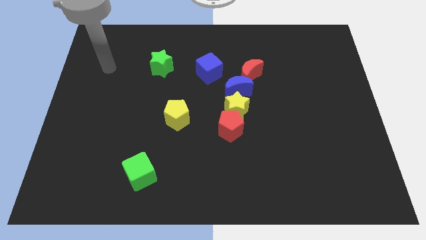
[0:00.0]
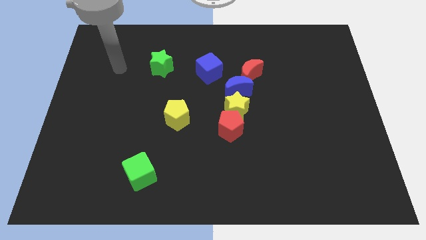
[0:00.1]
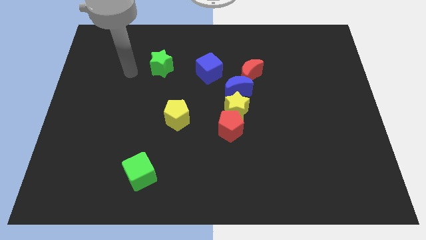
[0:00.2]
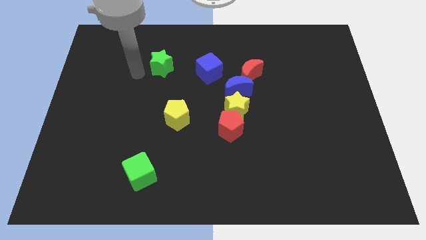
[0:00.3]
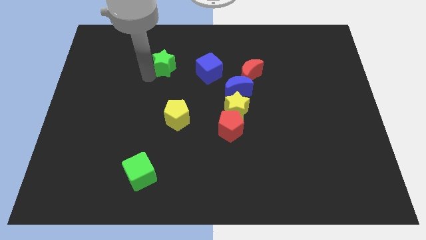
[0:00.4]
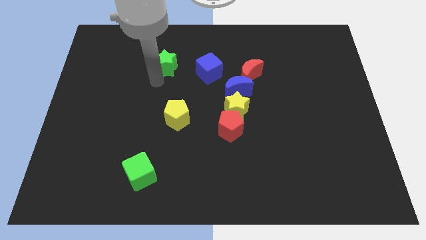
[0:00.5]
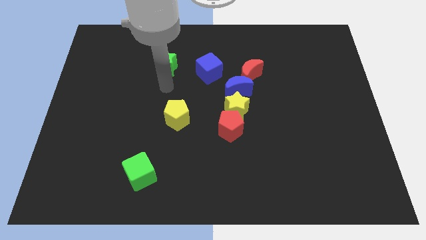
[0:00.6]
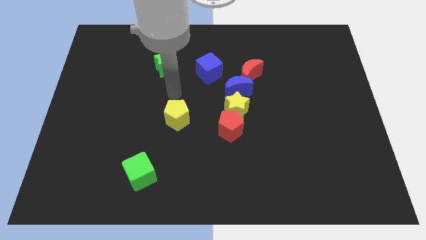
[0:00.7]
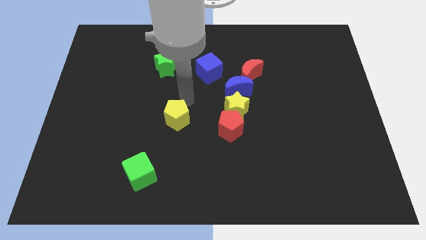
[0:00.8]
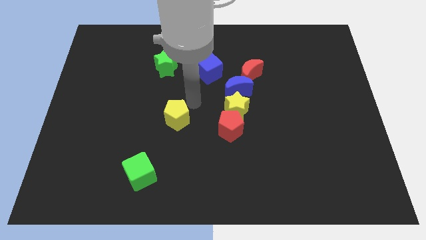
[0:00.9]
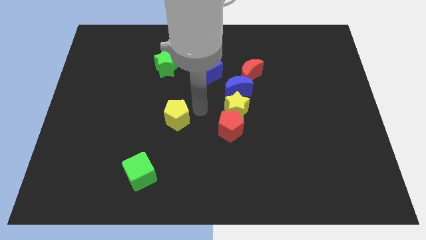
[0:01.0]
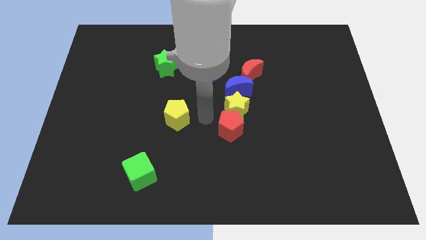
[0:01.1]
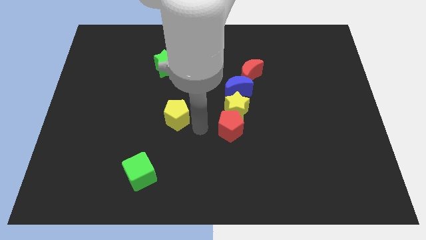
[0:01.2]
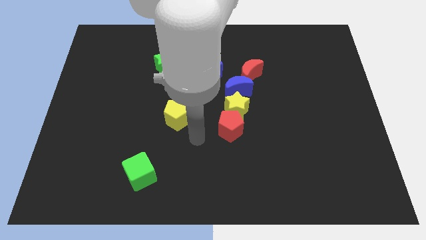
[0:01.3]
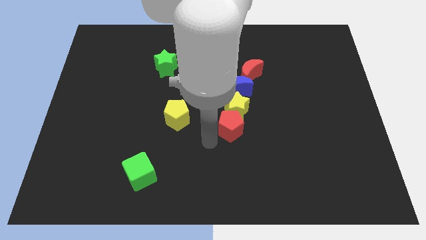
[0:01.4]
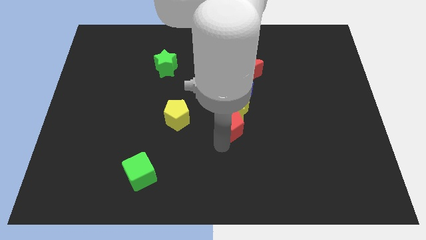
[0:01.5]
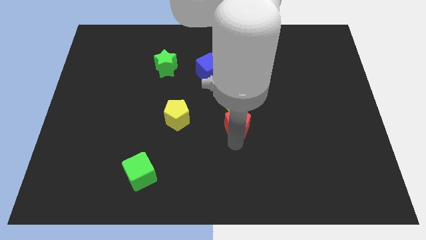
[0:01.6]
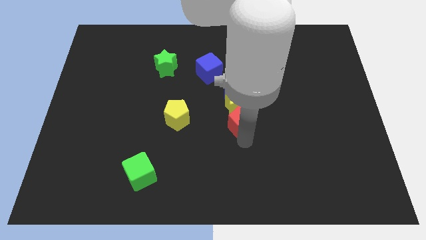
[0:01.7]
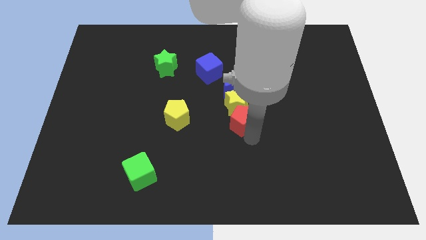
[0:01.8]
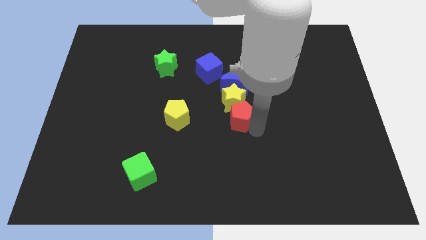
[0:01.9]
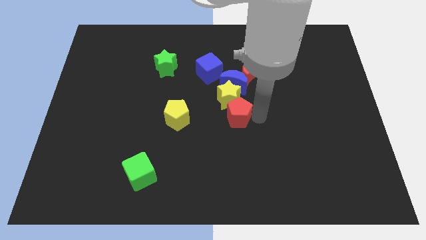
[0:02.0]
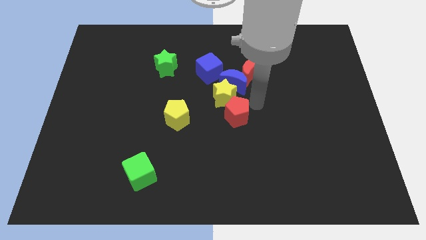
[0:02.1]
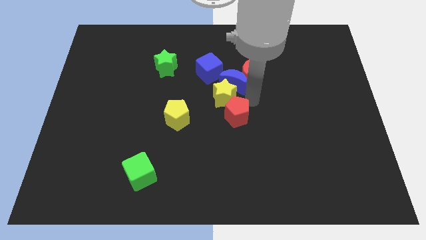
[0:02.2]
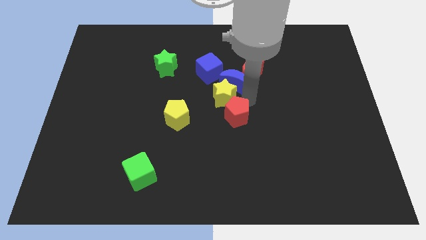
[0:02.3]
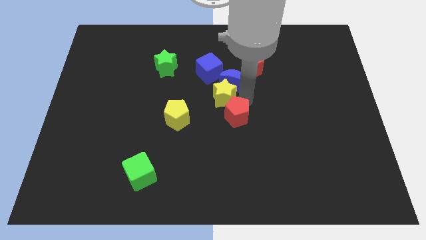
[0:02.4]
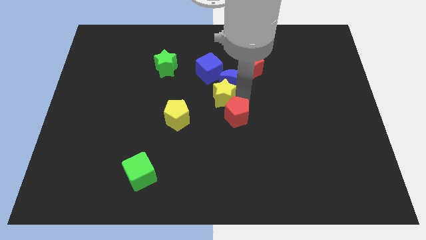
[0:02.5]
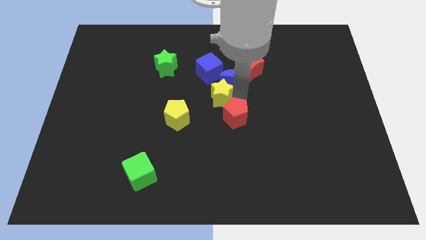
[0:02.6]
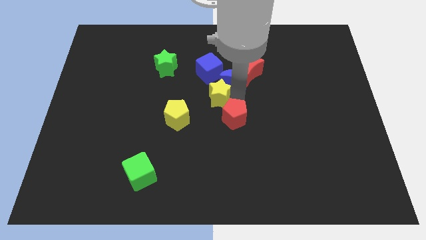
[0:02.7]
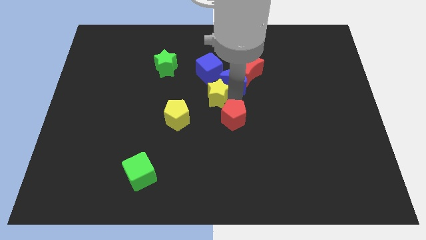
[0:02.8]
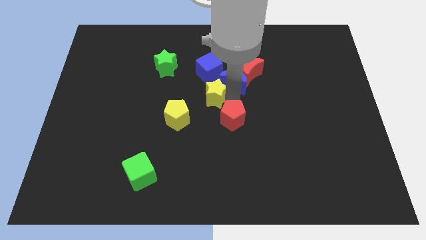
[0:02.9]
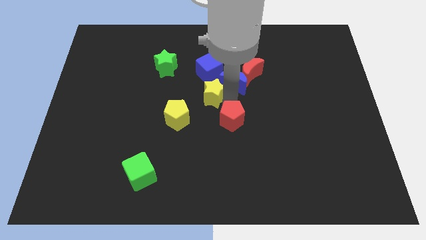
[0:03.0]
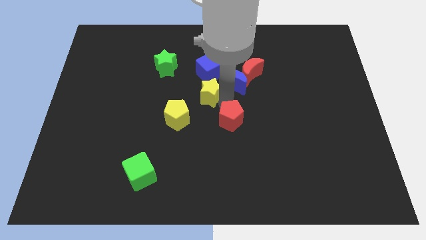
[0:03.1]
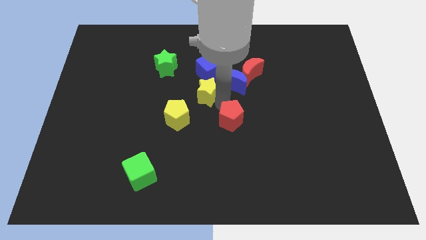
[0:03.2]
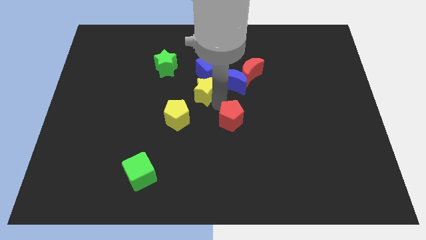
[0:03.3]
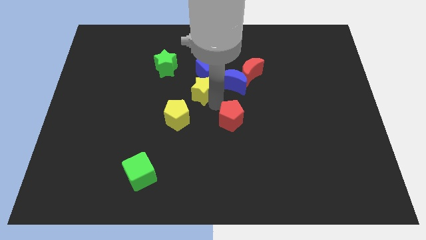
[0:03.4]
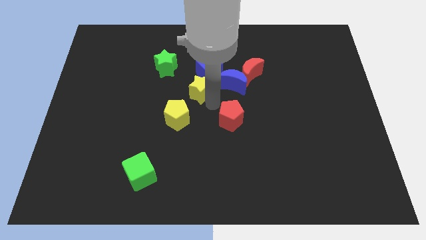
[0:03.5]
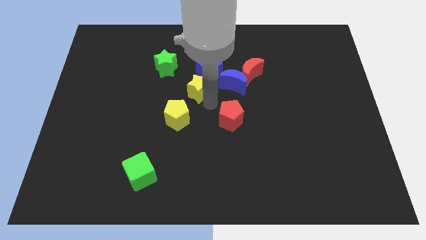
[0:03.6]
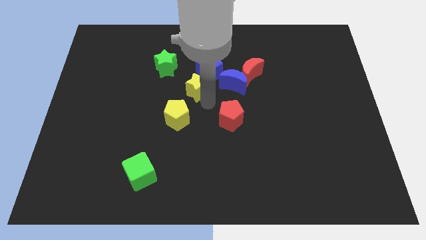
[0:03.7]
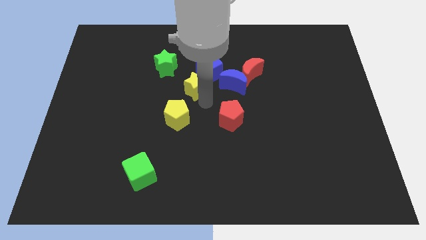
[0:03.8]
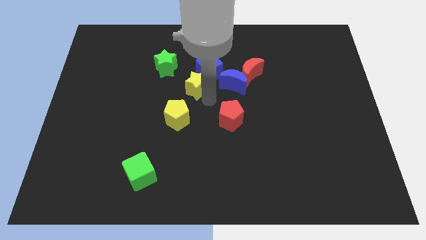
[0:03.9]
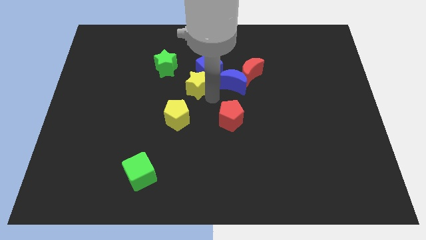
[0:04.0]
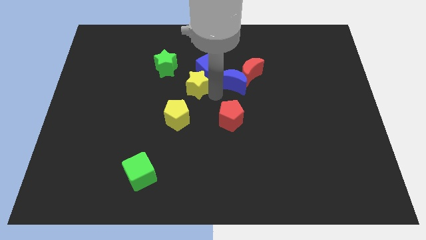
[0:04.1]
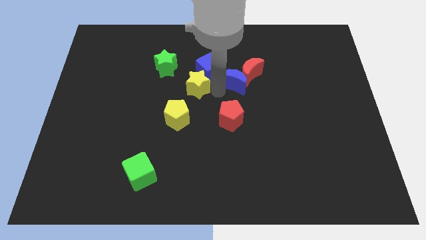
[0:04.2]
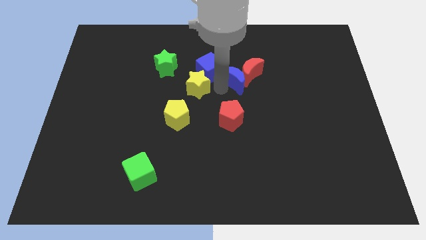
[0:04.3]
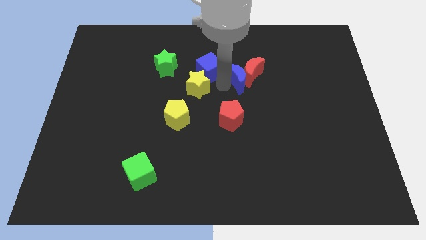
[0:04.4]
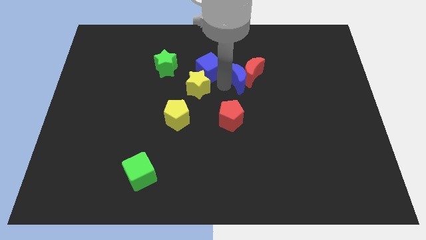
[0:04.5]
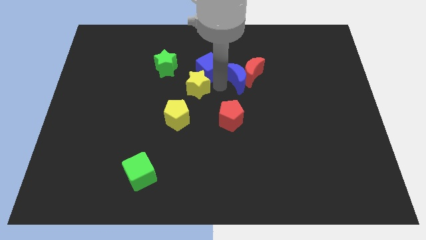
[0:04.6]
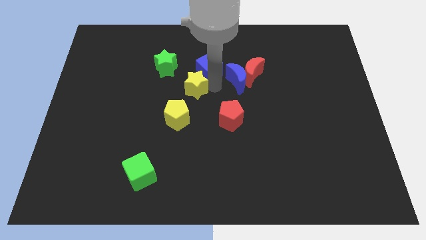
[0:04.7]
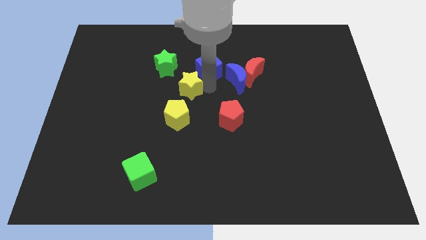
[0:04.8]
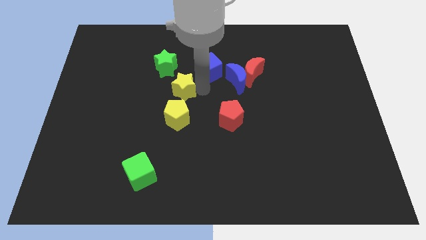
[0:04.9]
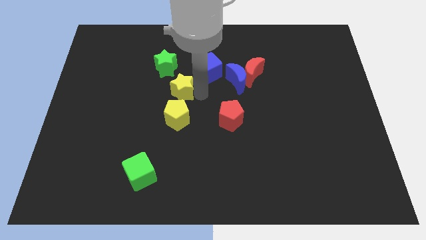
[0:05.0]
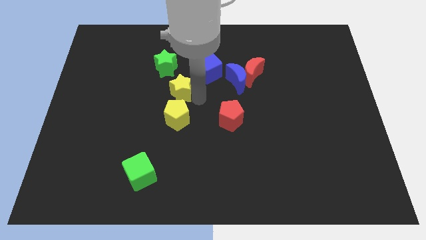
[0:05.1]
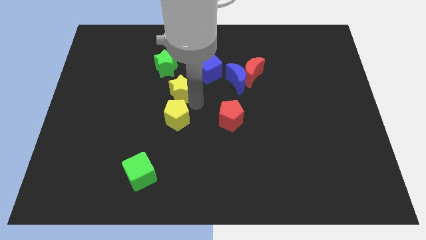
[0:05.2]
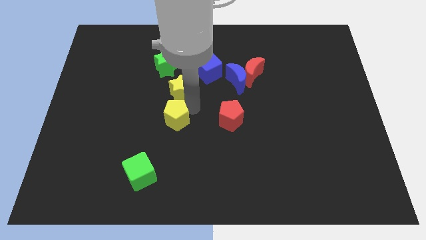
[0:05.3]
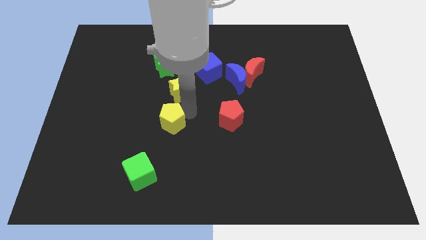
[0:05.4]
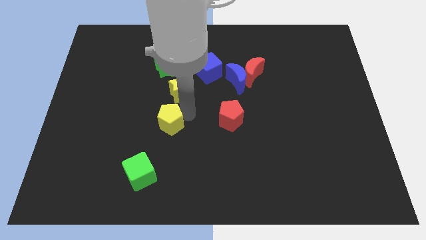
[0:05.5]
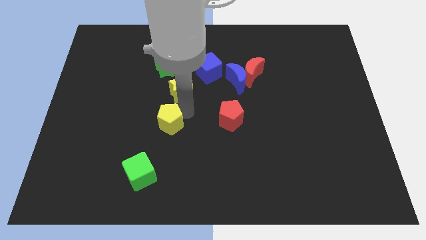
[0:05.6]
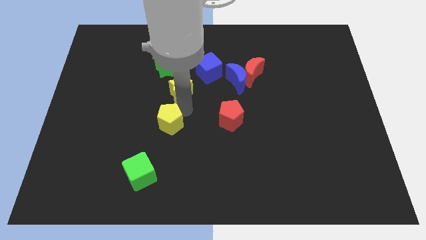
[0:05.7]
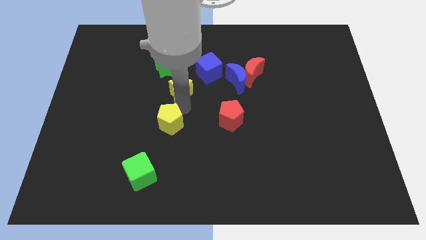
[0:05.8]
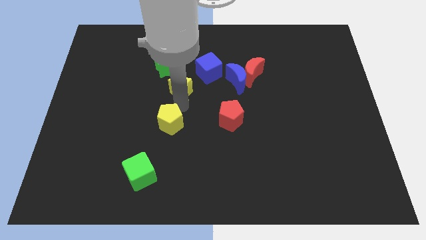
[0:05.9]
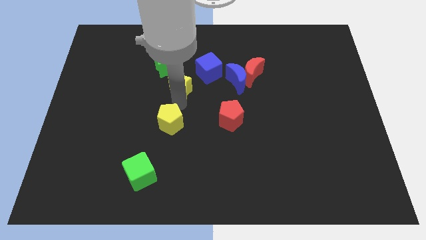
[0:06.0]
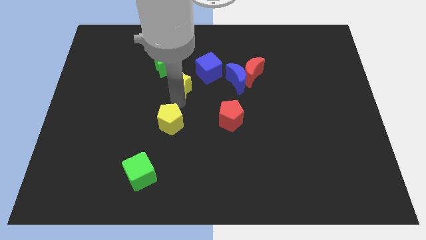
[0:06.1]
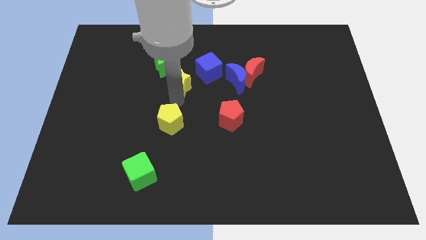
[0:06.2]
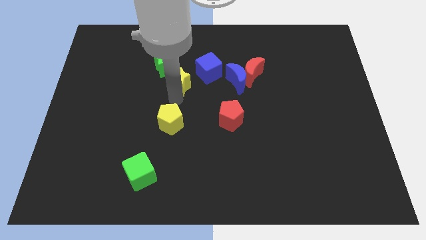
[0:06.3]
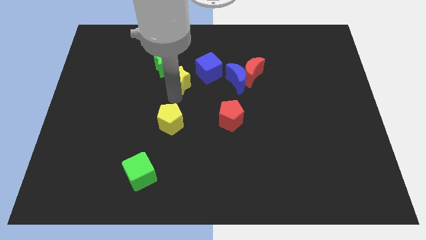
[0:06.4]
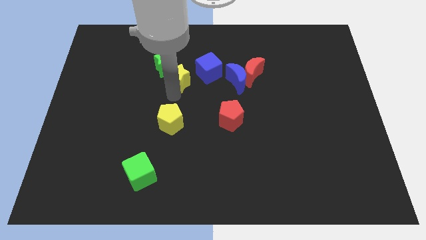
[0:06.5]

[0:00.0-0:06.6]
put the yellow star next to the green star

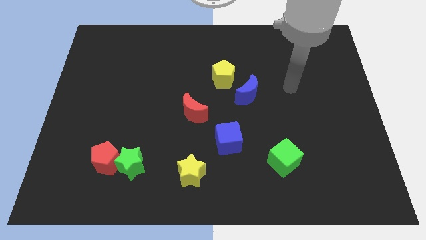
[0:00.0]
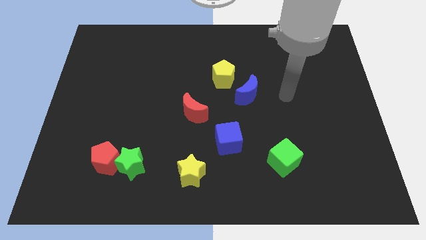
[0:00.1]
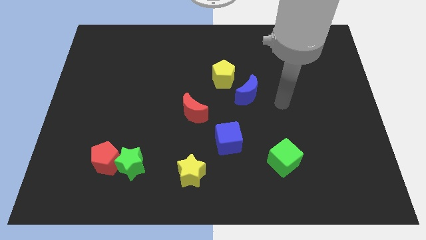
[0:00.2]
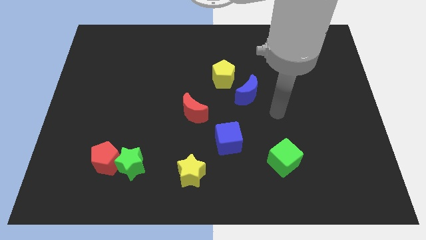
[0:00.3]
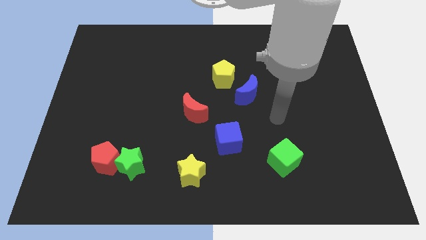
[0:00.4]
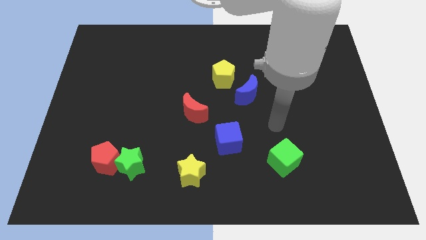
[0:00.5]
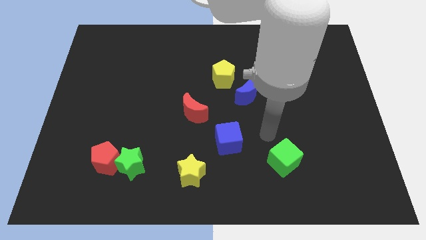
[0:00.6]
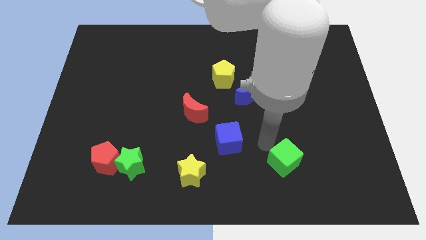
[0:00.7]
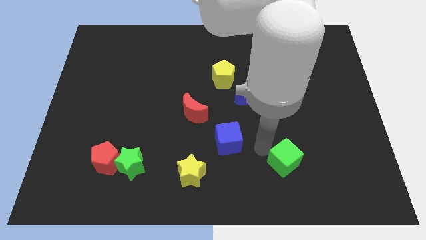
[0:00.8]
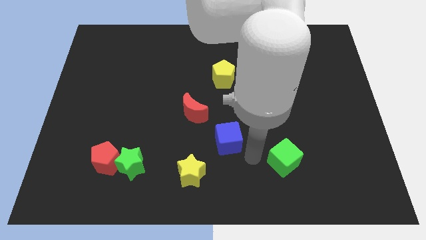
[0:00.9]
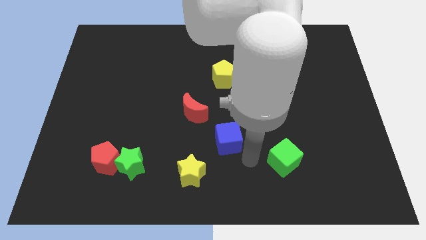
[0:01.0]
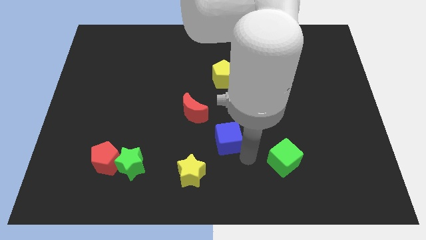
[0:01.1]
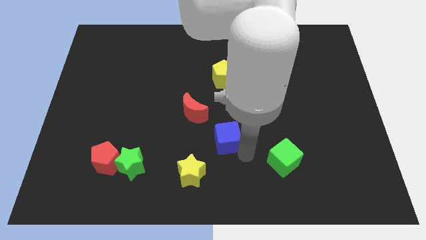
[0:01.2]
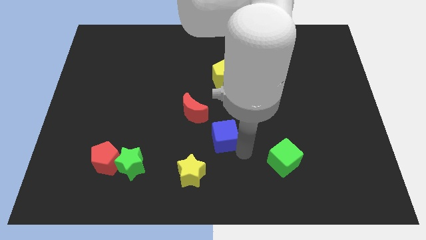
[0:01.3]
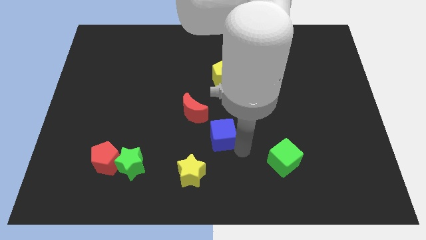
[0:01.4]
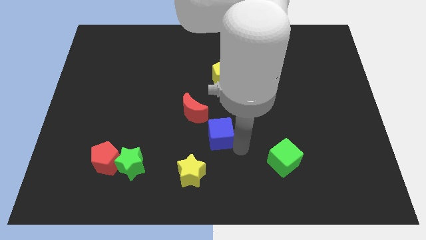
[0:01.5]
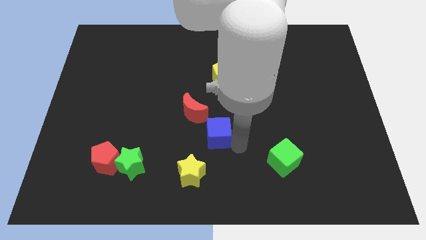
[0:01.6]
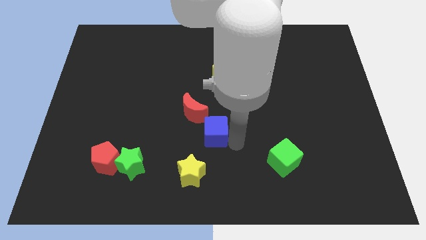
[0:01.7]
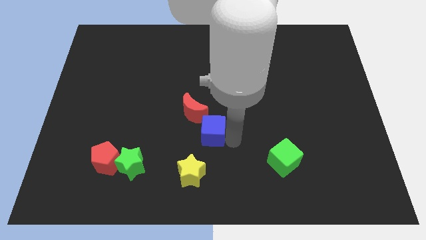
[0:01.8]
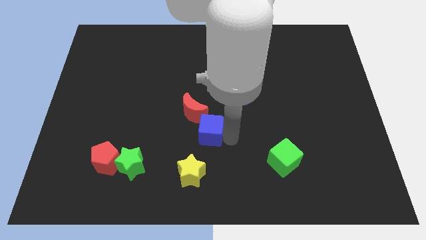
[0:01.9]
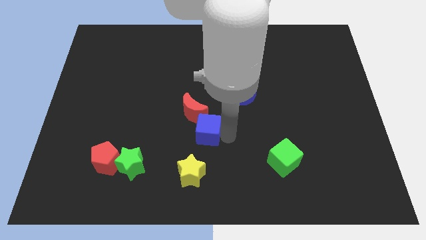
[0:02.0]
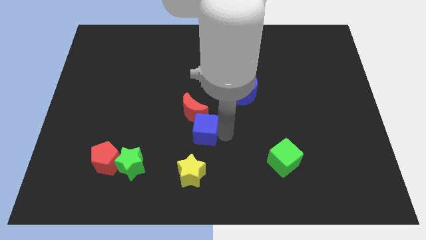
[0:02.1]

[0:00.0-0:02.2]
slide the blue cube close to the red moon
